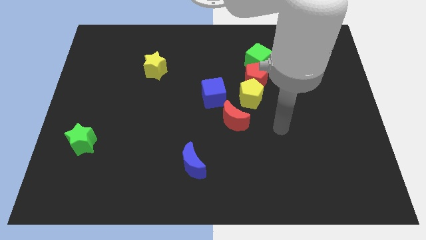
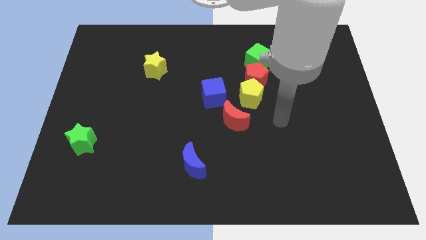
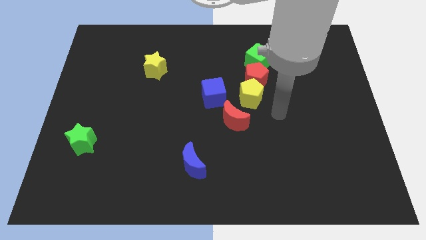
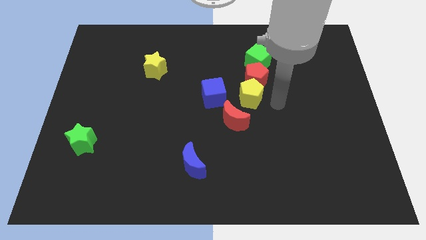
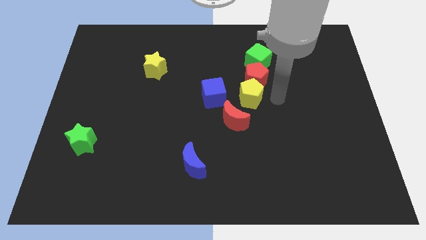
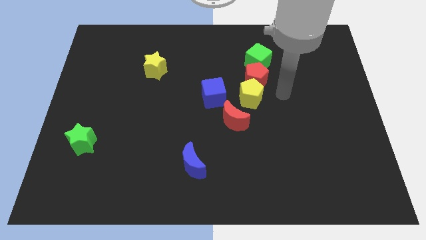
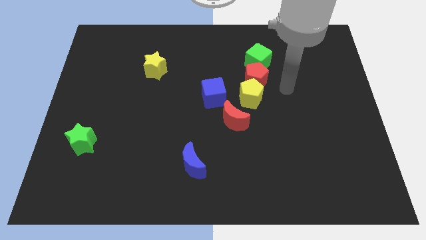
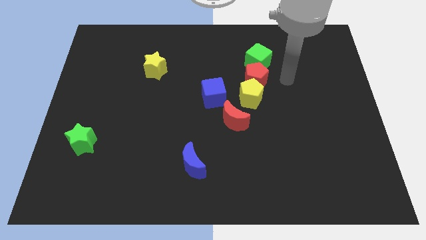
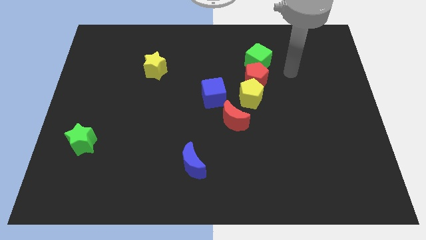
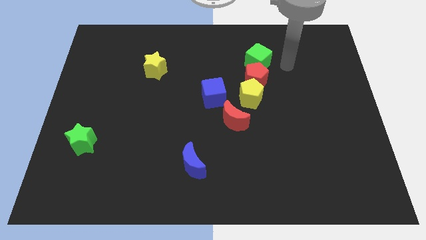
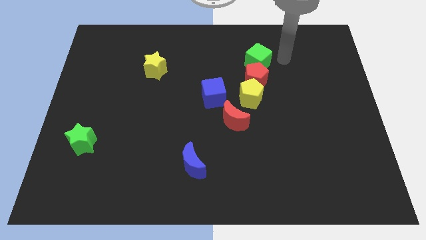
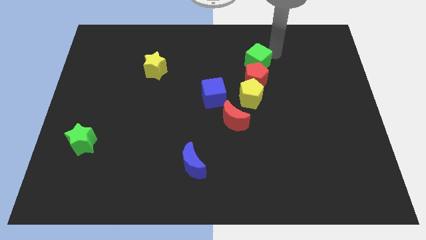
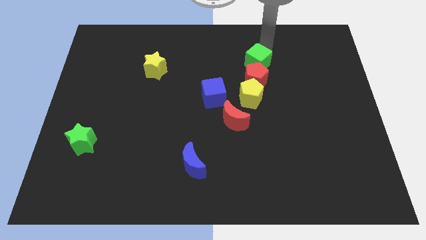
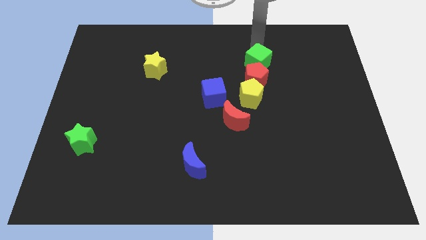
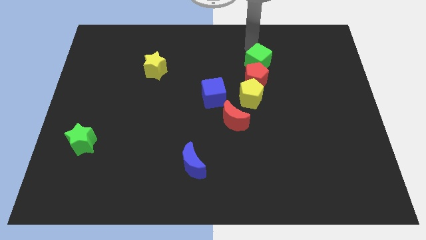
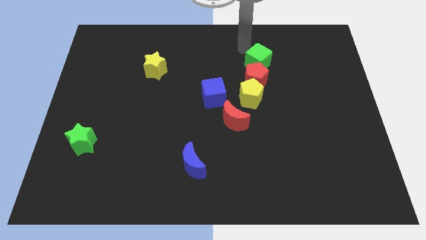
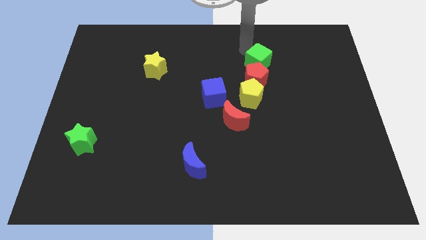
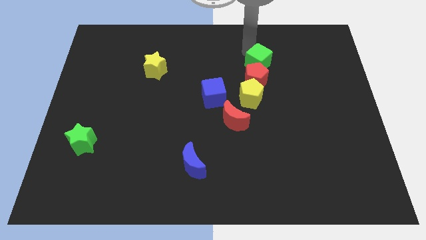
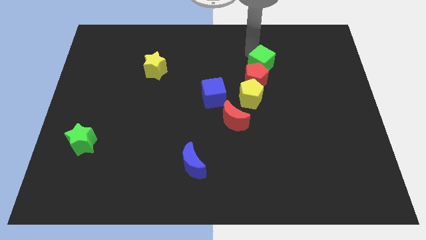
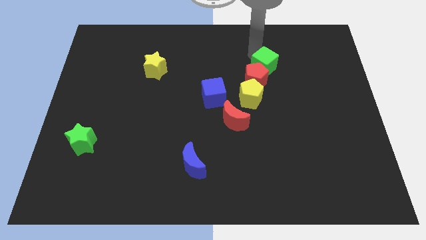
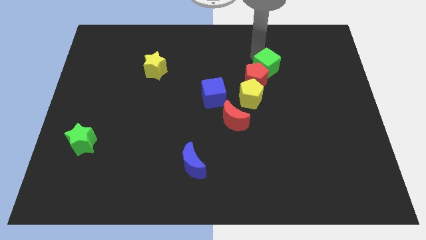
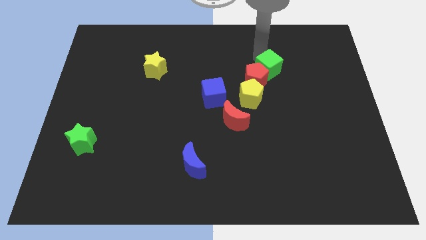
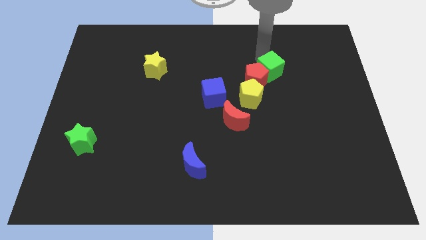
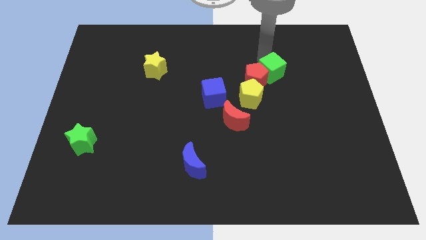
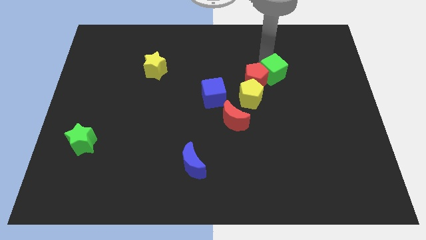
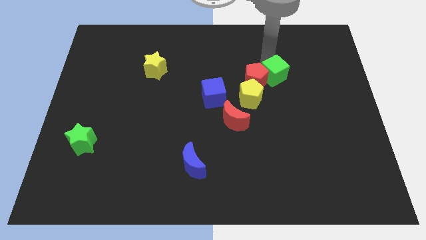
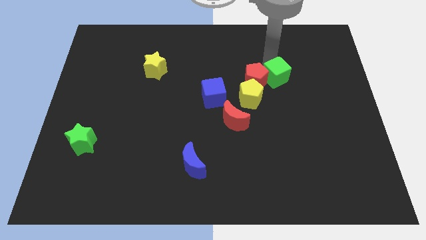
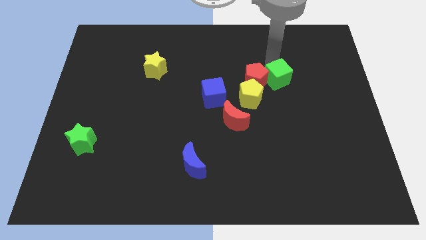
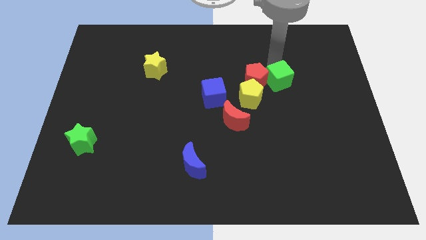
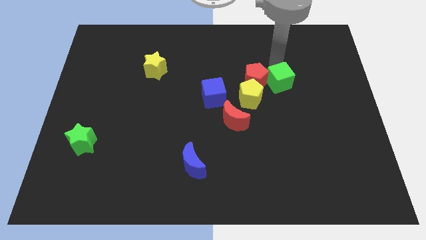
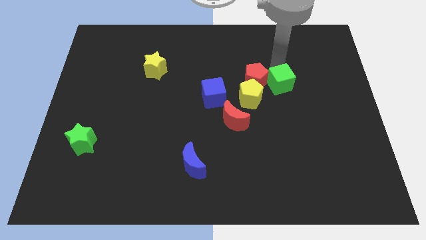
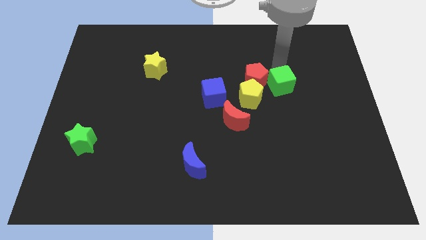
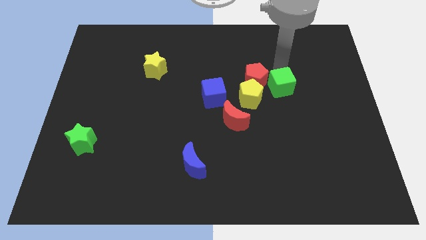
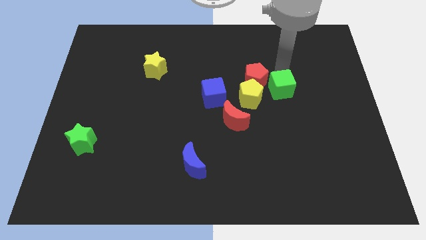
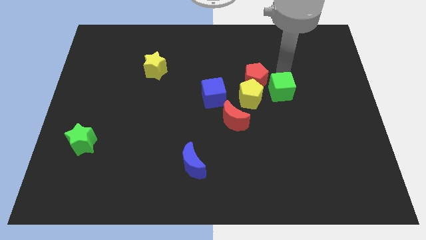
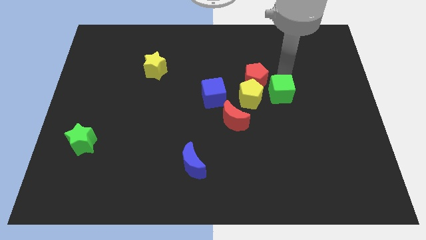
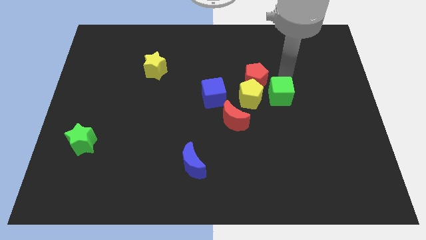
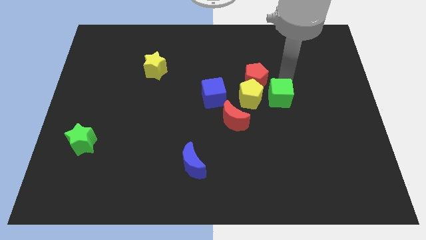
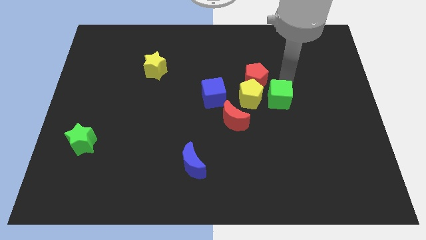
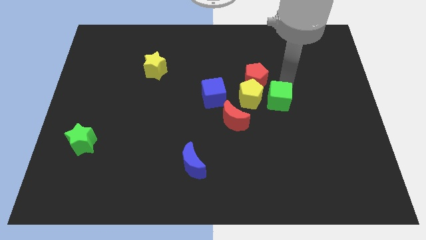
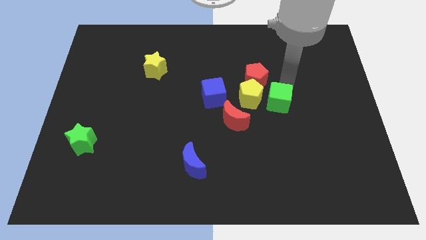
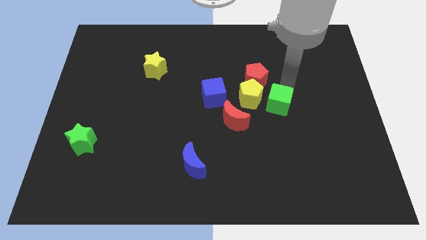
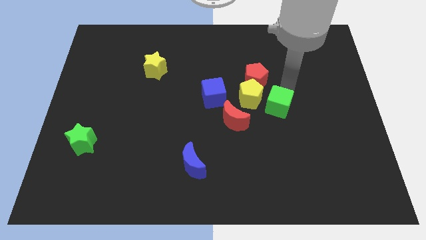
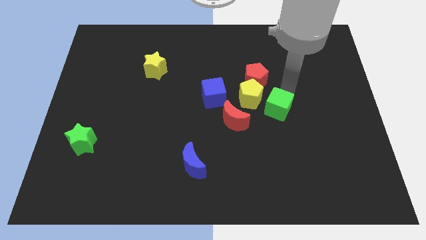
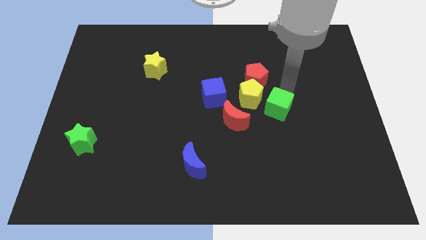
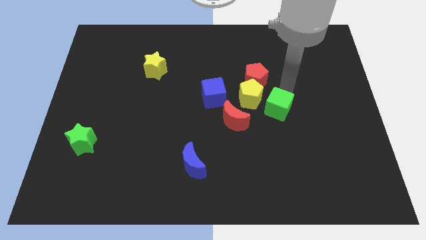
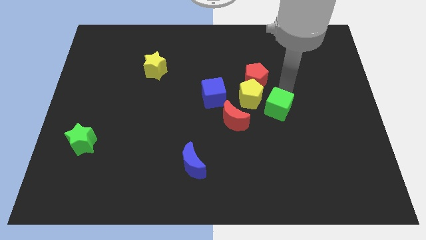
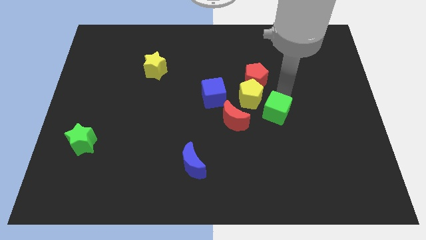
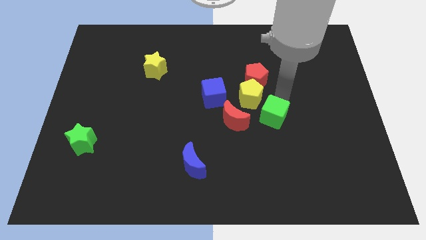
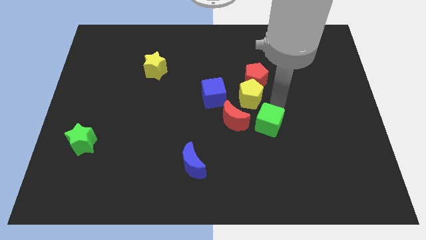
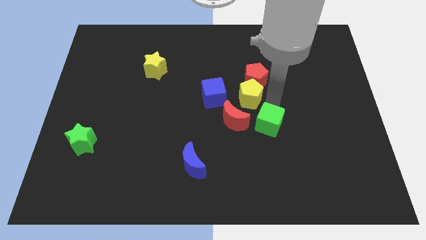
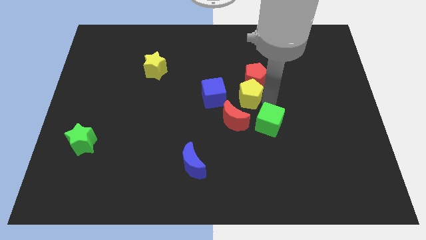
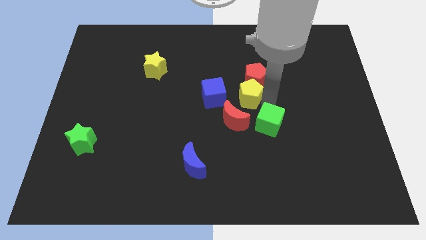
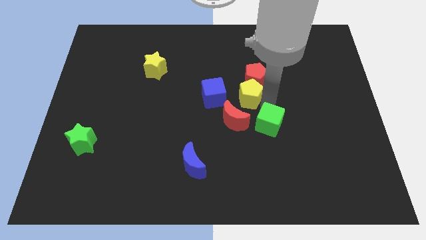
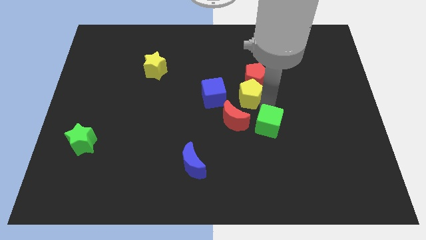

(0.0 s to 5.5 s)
slide the green cube downwards

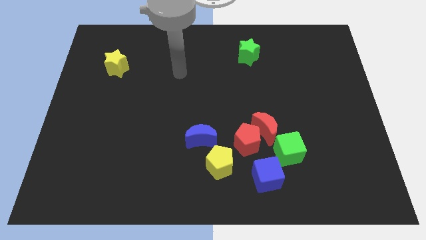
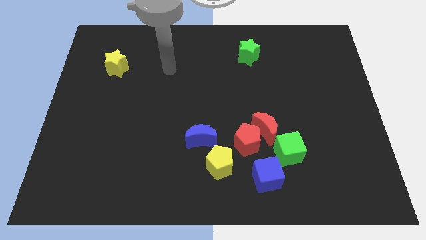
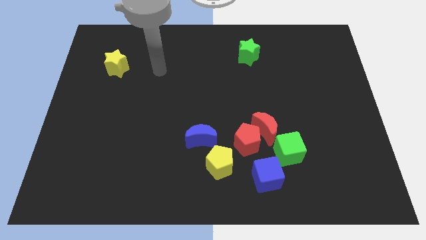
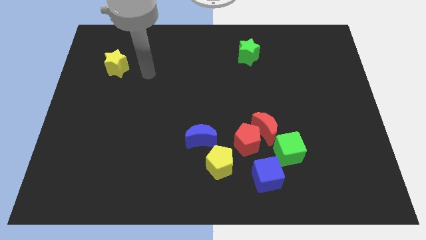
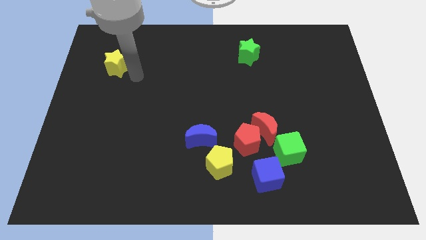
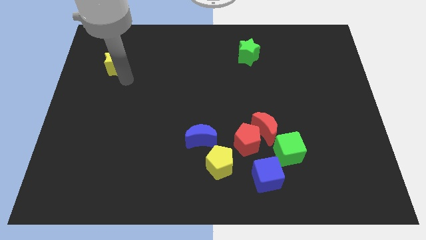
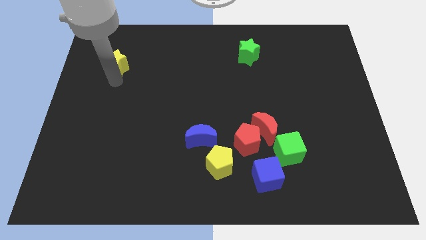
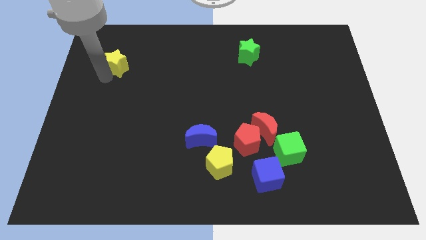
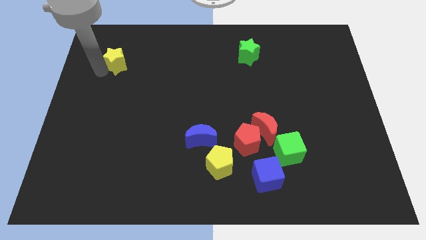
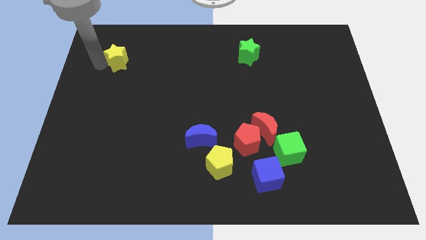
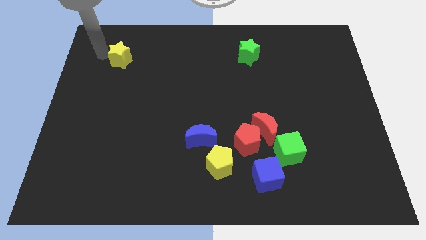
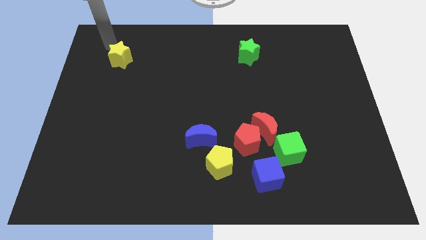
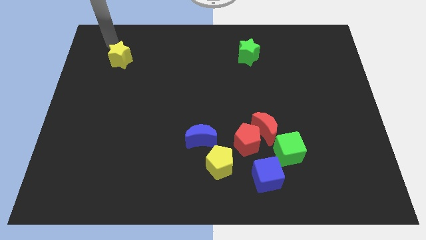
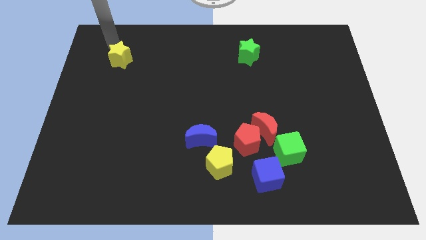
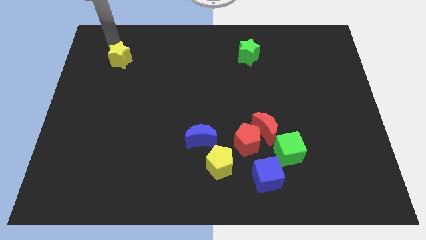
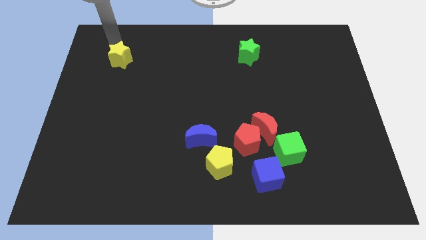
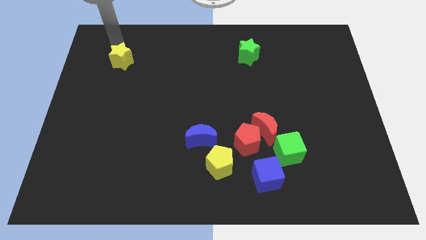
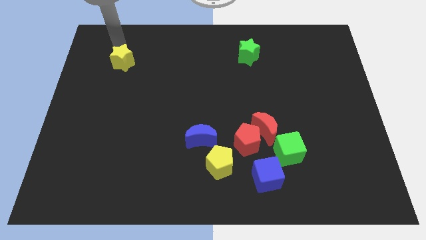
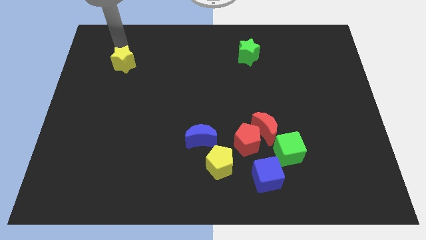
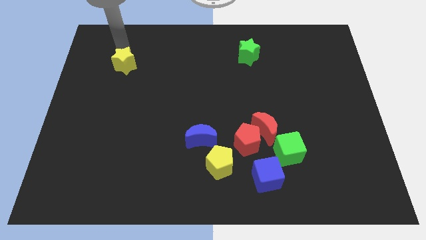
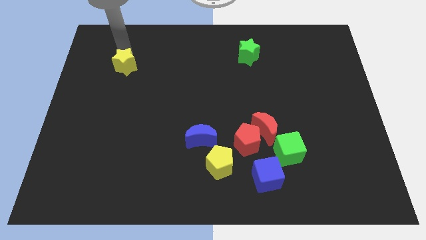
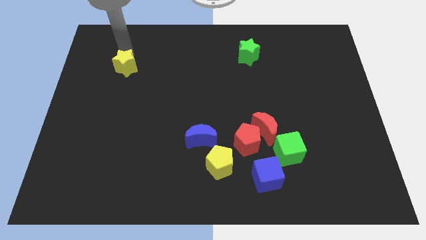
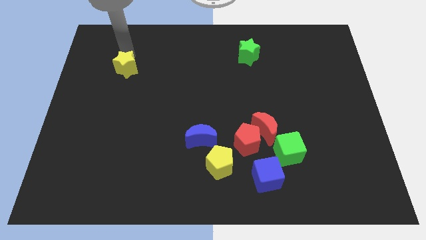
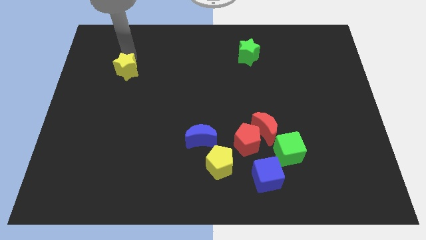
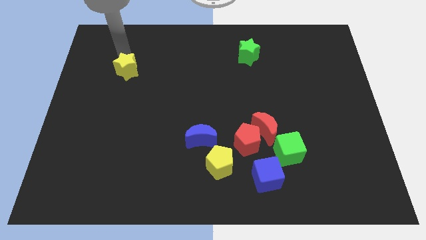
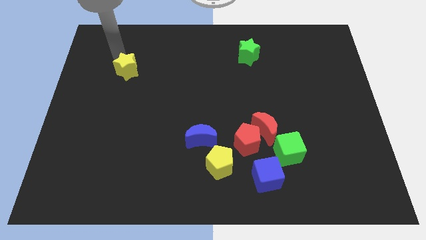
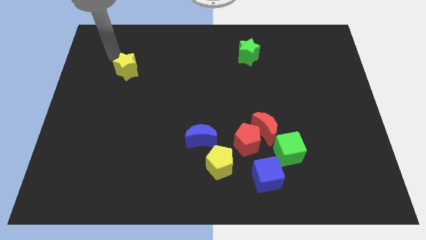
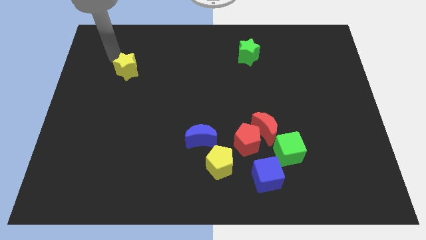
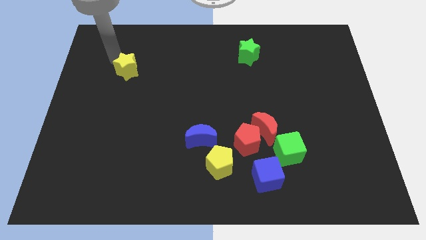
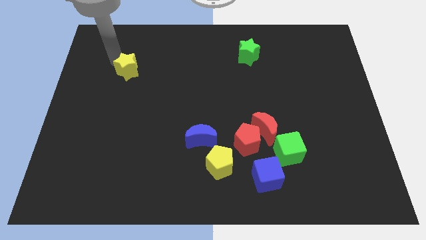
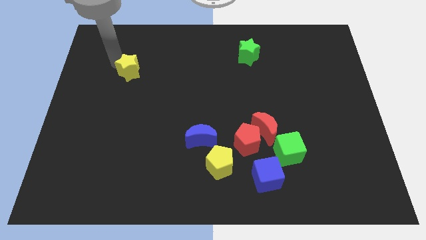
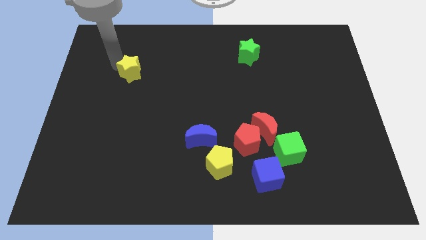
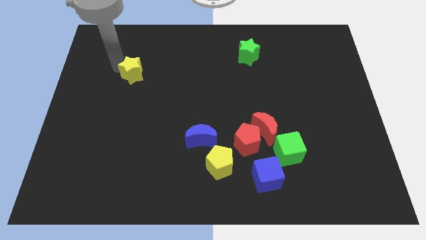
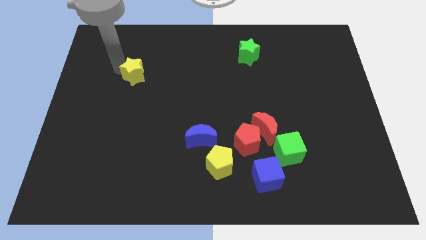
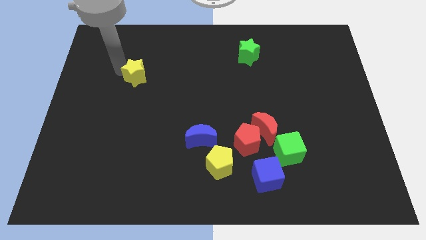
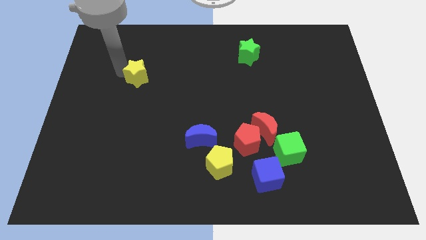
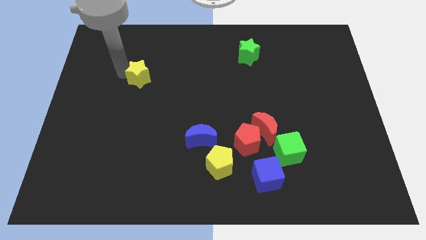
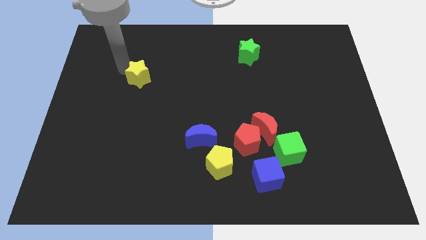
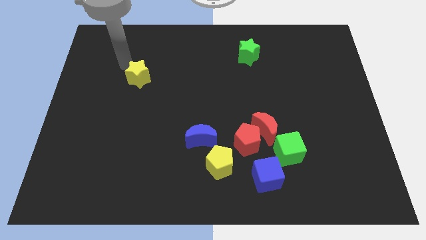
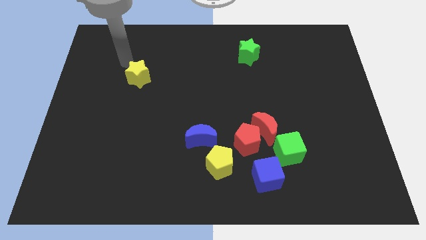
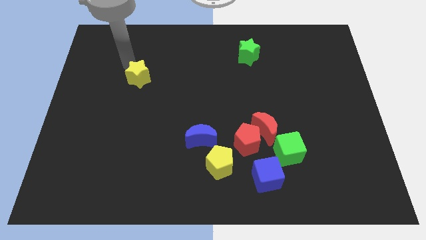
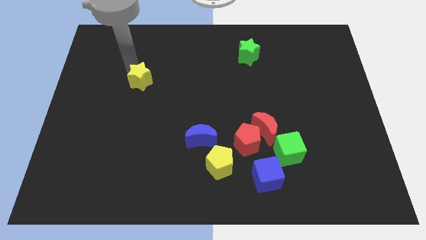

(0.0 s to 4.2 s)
slide the yellow star diagonally downwards and right slightly
